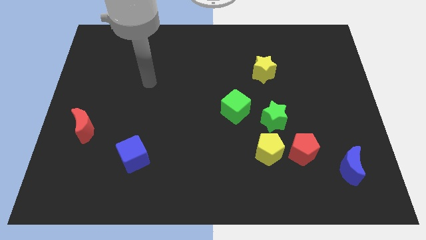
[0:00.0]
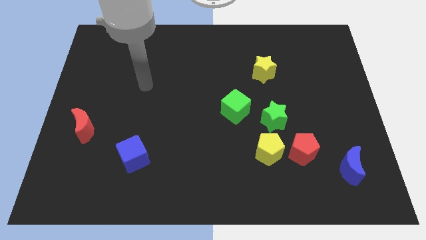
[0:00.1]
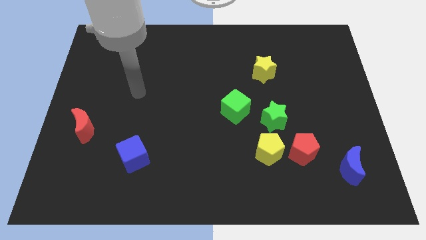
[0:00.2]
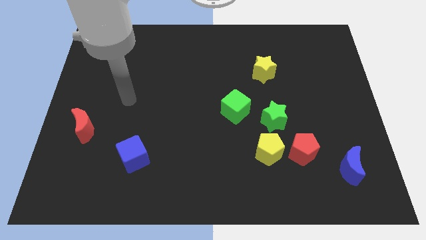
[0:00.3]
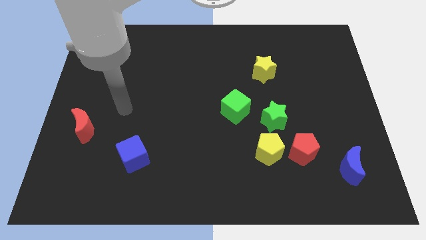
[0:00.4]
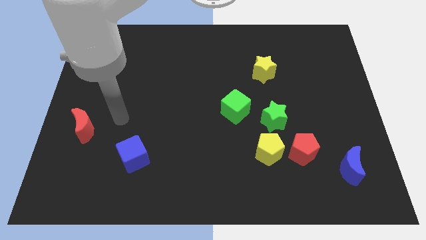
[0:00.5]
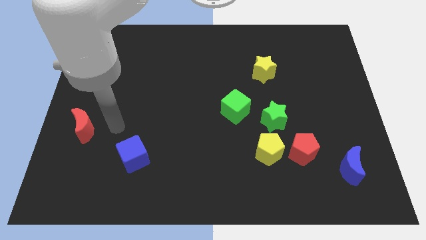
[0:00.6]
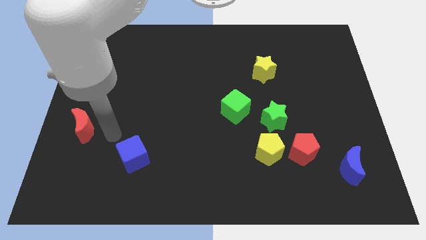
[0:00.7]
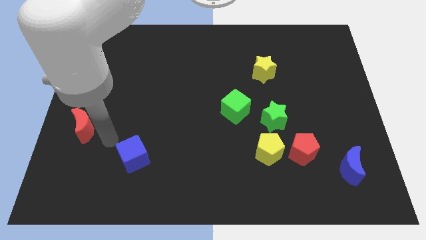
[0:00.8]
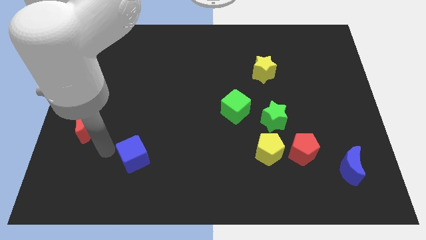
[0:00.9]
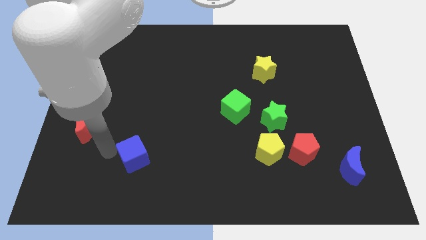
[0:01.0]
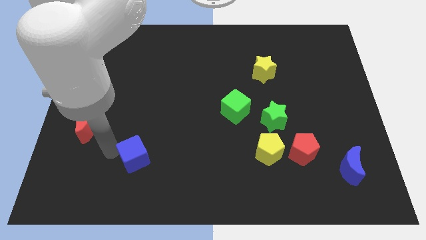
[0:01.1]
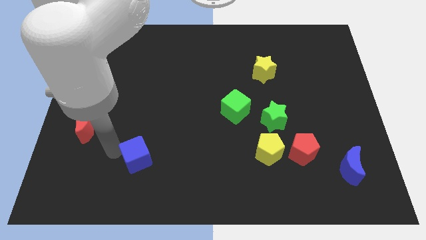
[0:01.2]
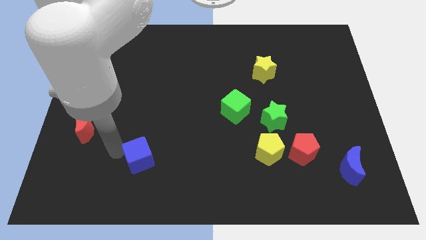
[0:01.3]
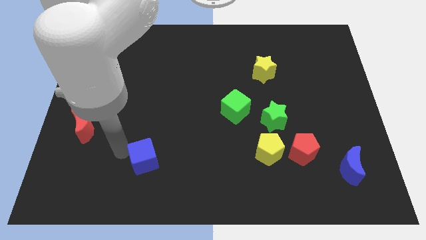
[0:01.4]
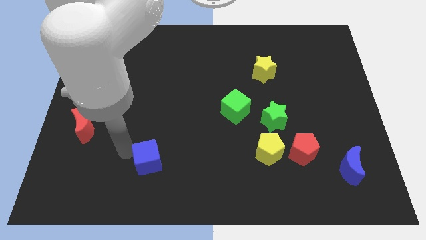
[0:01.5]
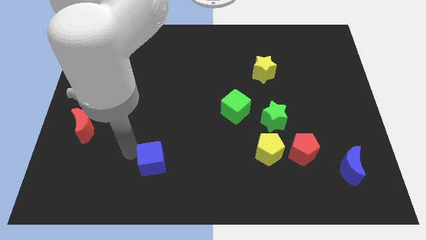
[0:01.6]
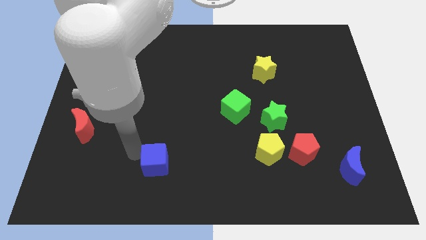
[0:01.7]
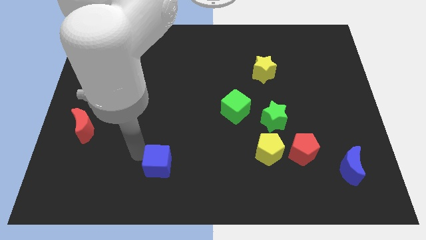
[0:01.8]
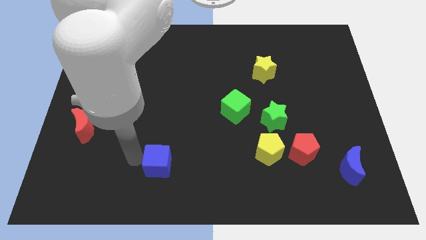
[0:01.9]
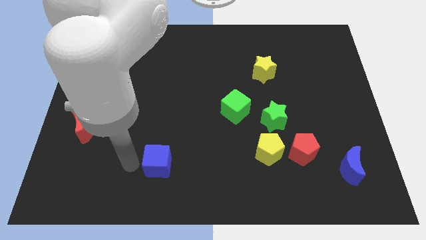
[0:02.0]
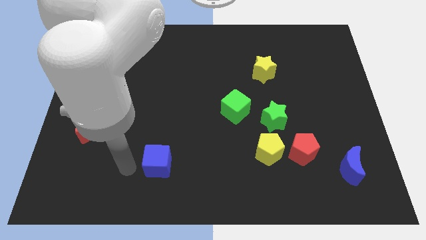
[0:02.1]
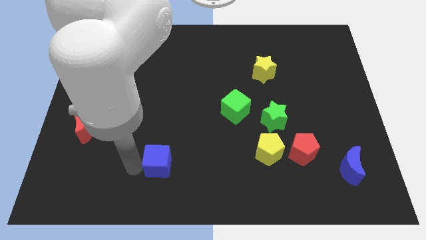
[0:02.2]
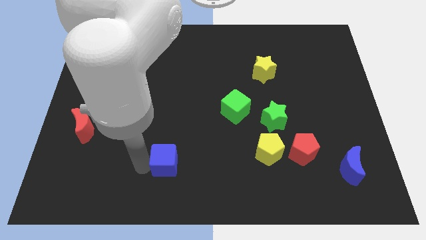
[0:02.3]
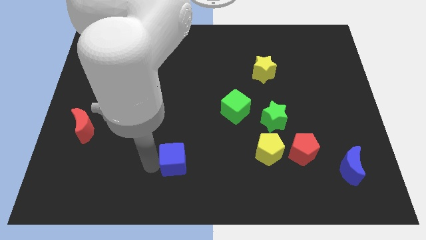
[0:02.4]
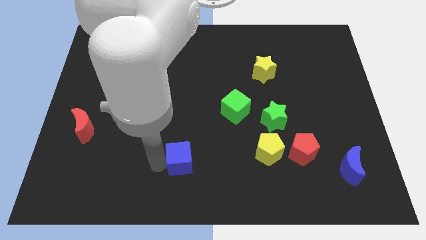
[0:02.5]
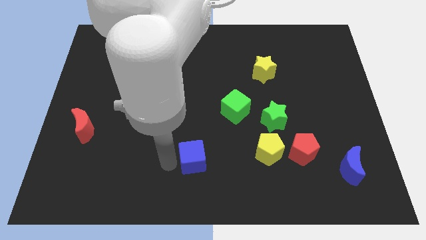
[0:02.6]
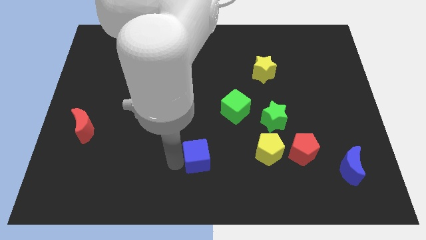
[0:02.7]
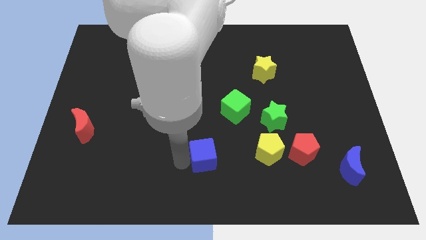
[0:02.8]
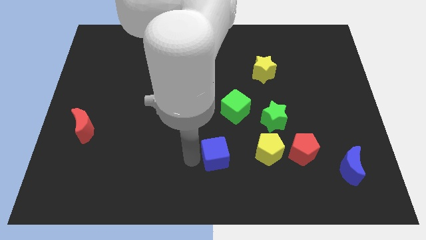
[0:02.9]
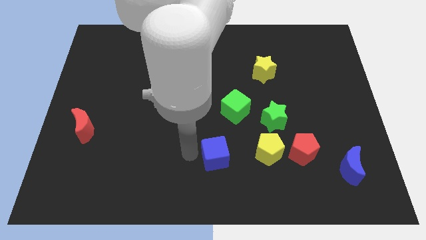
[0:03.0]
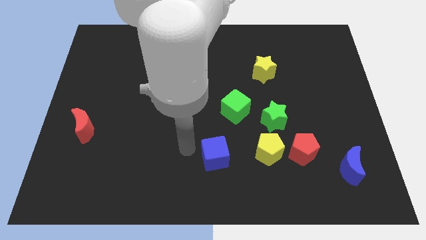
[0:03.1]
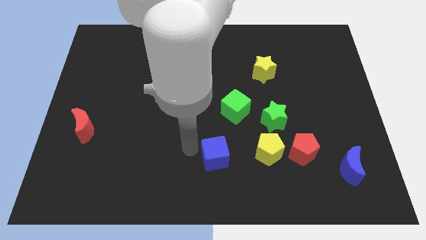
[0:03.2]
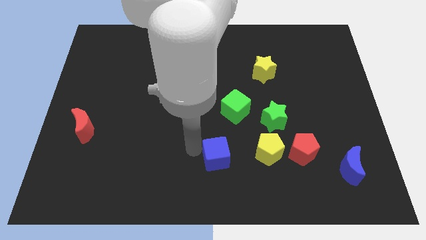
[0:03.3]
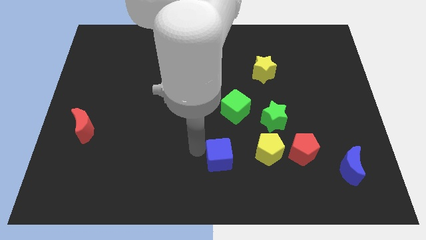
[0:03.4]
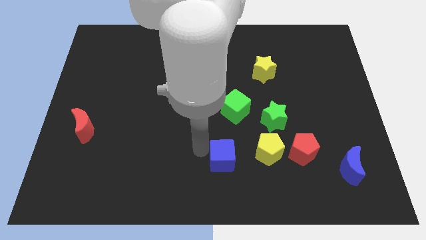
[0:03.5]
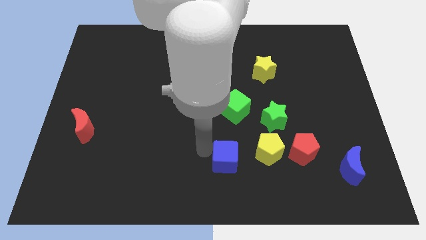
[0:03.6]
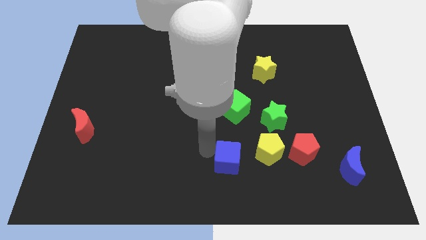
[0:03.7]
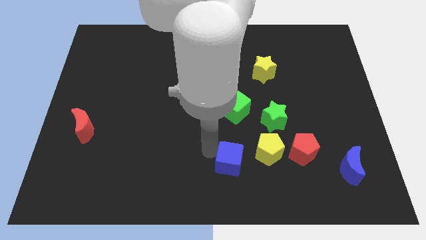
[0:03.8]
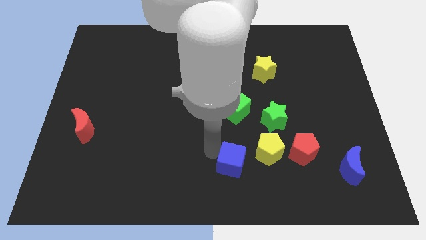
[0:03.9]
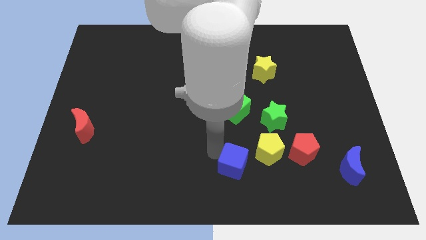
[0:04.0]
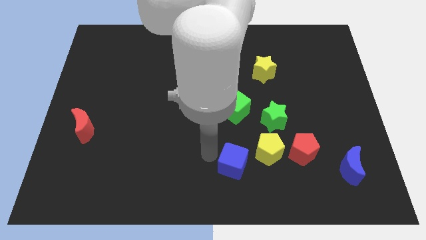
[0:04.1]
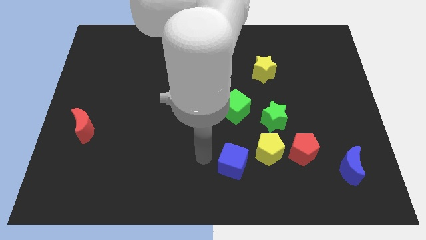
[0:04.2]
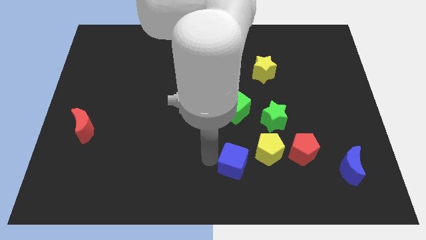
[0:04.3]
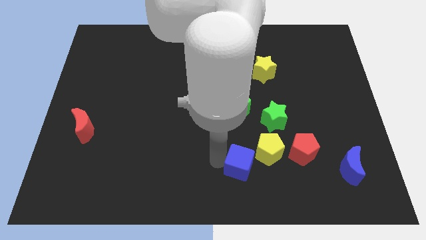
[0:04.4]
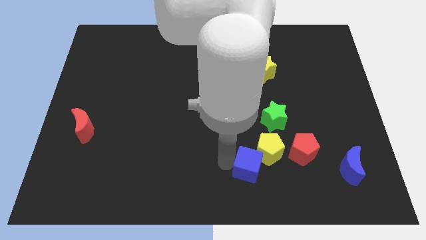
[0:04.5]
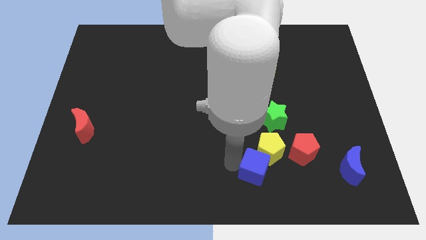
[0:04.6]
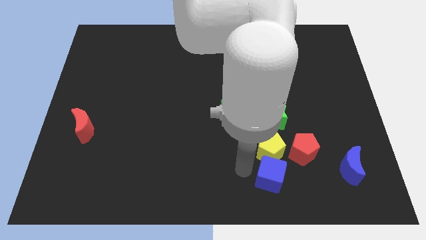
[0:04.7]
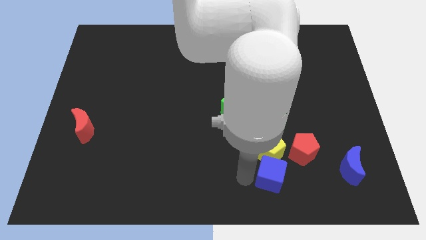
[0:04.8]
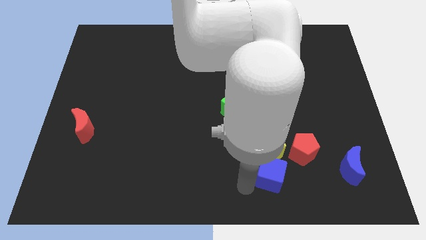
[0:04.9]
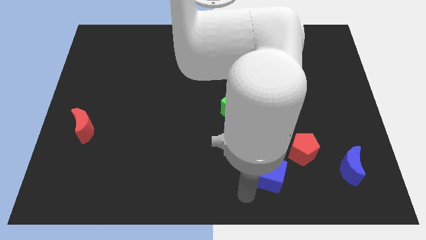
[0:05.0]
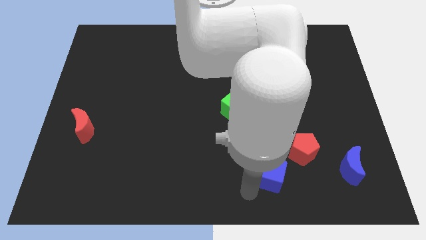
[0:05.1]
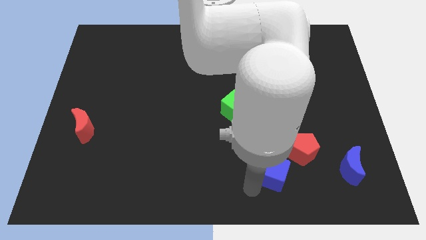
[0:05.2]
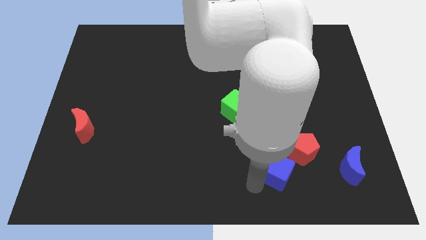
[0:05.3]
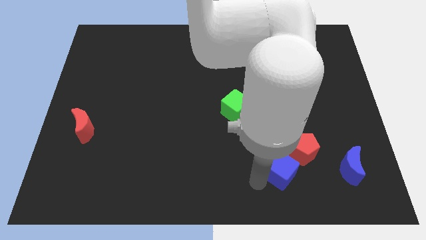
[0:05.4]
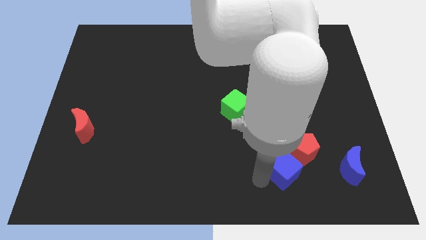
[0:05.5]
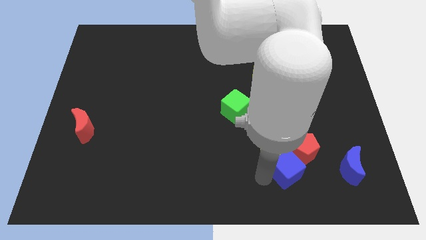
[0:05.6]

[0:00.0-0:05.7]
push the blue cube towards the red pentagon

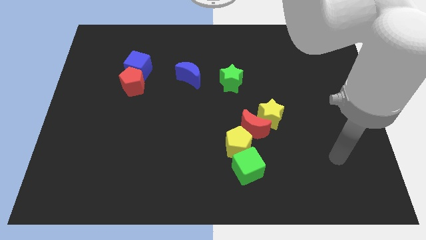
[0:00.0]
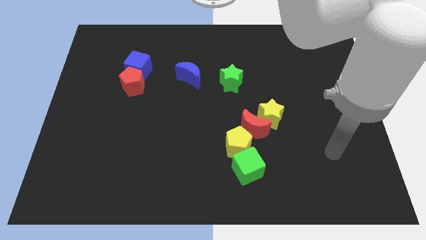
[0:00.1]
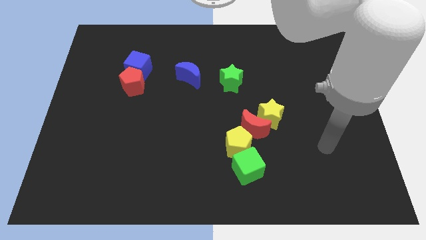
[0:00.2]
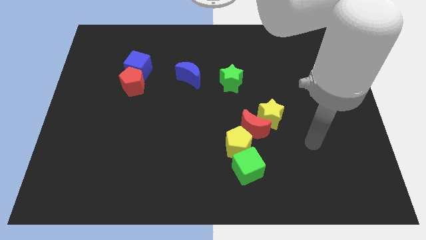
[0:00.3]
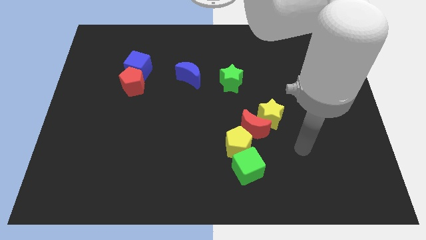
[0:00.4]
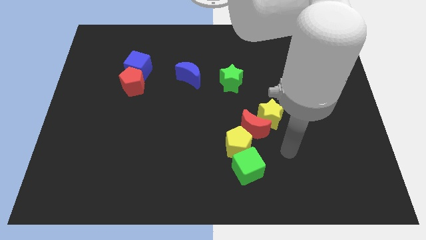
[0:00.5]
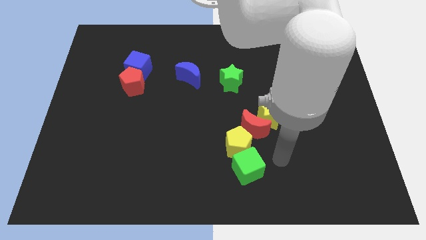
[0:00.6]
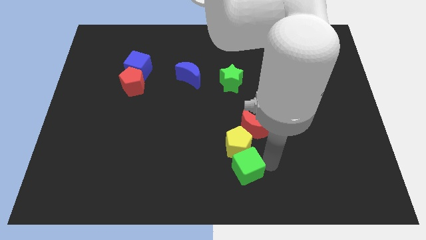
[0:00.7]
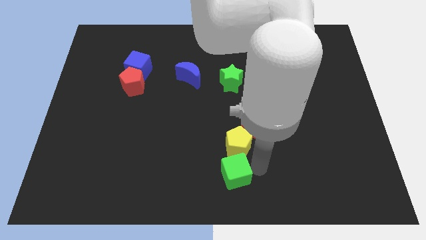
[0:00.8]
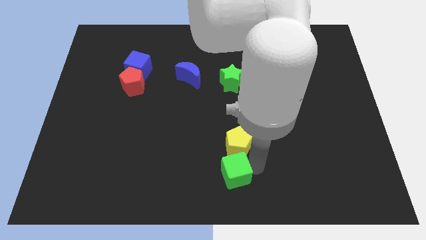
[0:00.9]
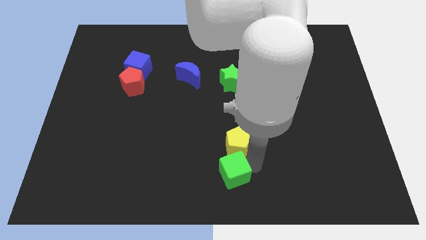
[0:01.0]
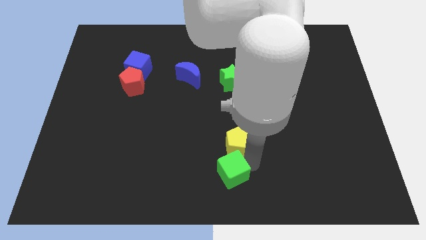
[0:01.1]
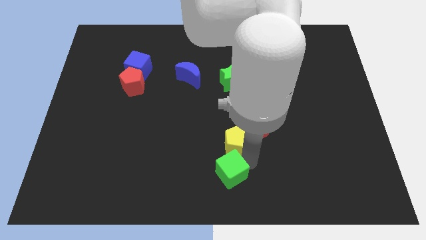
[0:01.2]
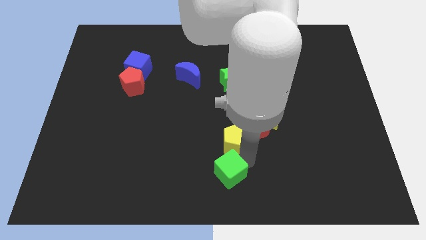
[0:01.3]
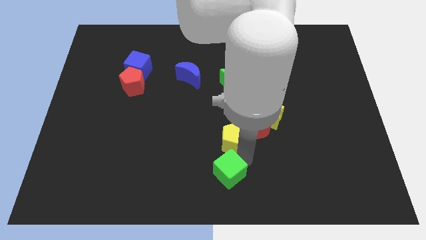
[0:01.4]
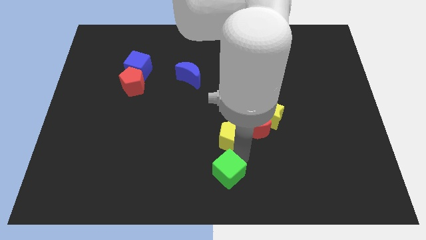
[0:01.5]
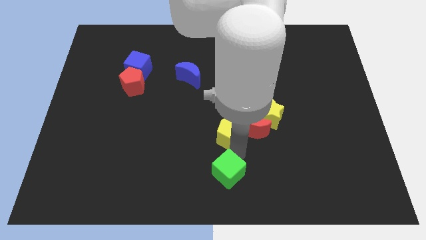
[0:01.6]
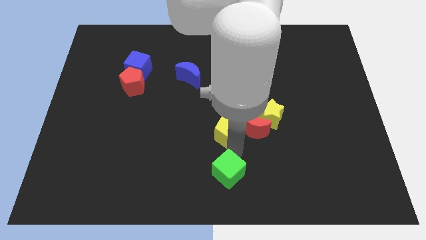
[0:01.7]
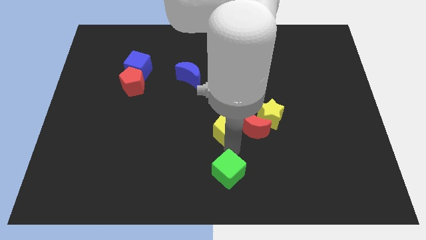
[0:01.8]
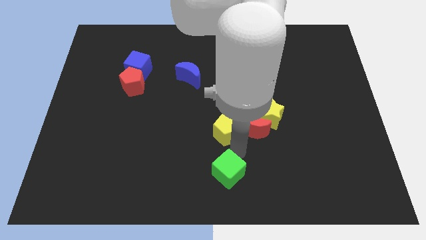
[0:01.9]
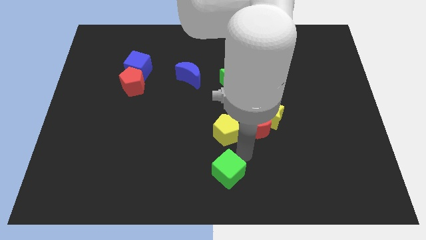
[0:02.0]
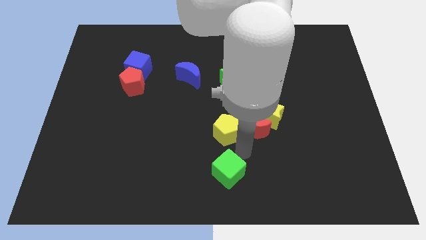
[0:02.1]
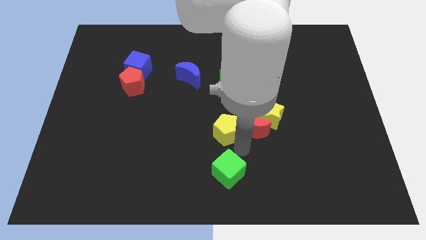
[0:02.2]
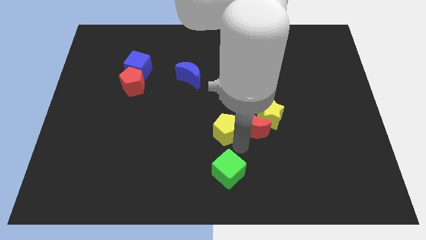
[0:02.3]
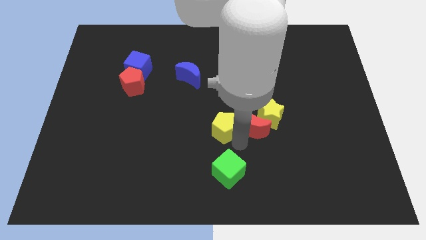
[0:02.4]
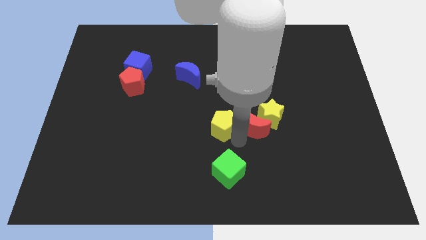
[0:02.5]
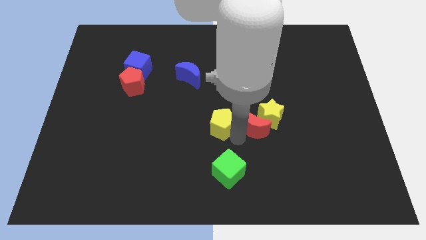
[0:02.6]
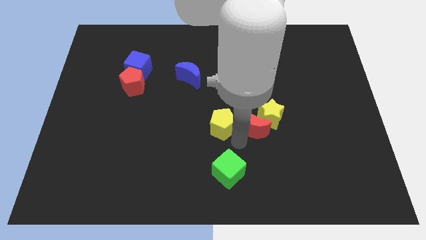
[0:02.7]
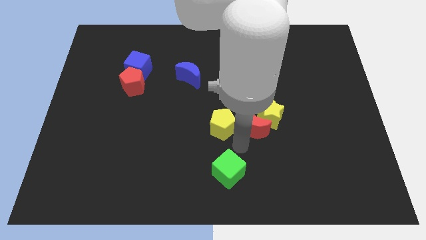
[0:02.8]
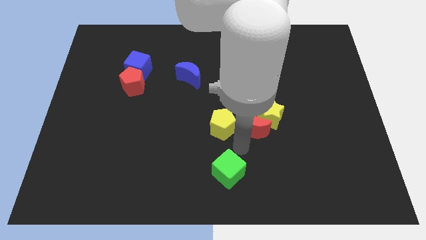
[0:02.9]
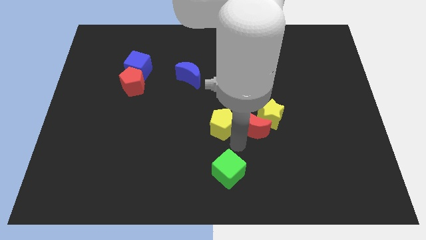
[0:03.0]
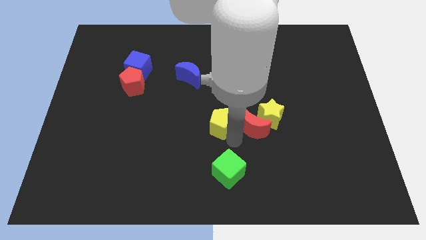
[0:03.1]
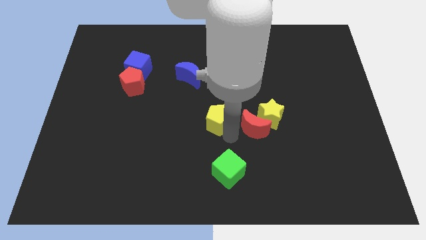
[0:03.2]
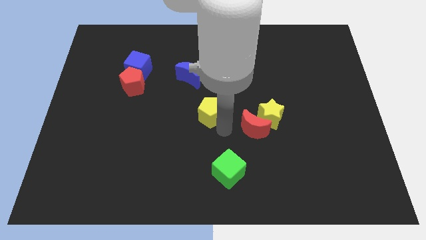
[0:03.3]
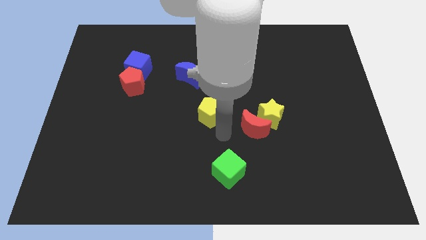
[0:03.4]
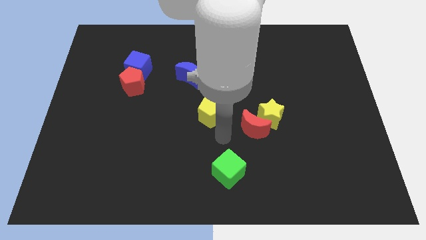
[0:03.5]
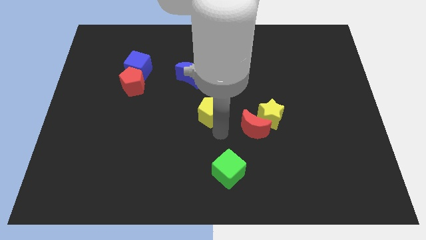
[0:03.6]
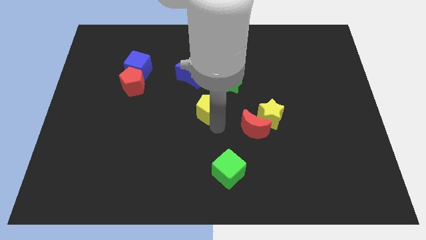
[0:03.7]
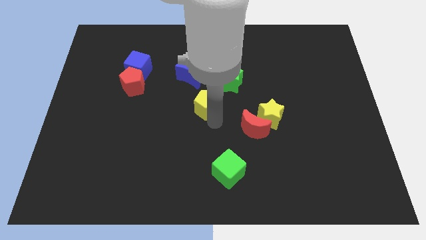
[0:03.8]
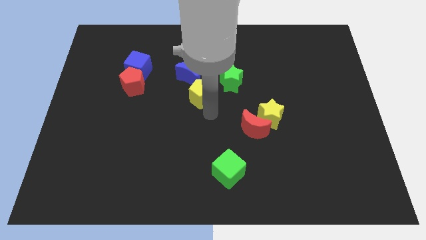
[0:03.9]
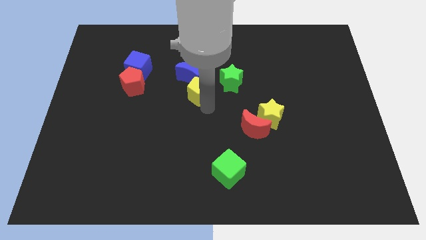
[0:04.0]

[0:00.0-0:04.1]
push the yellow pentagon next to the blue moon
